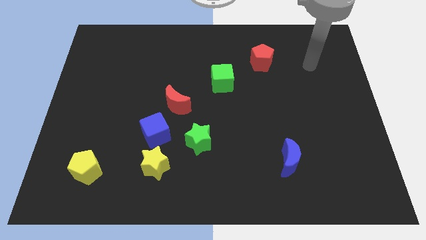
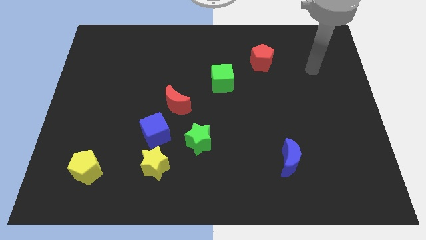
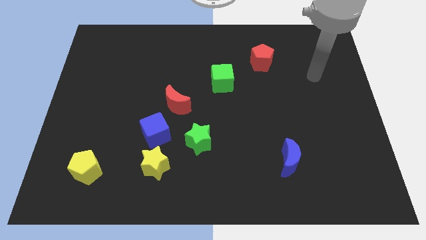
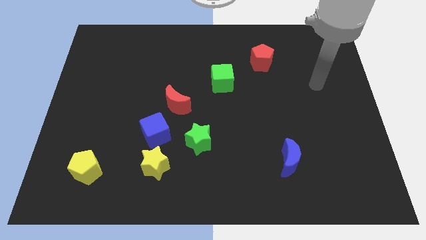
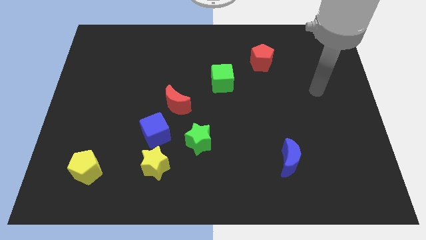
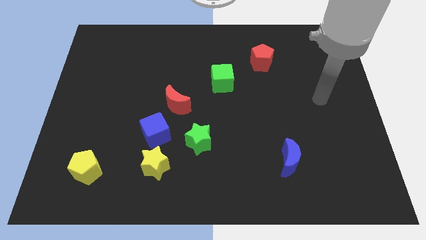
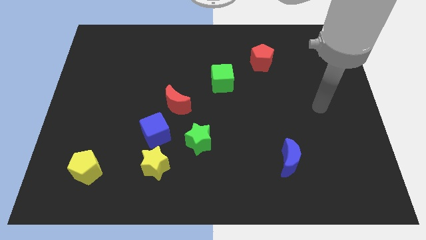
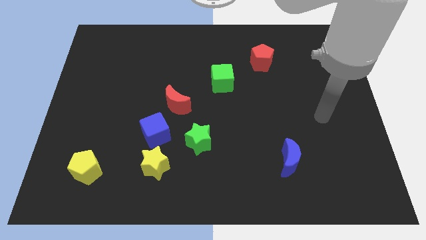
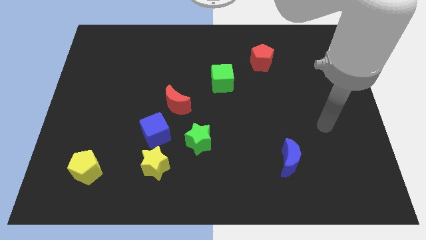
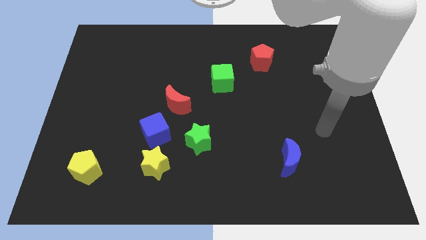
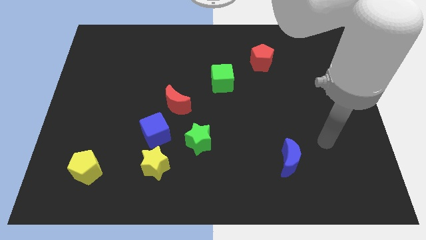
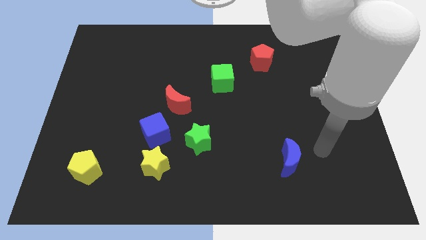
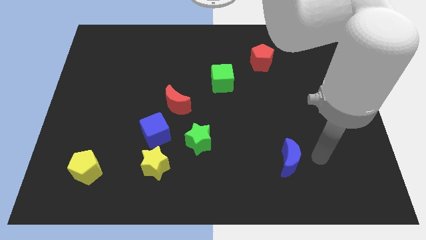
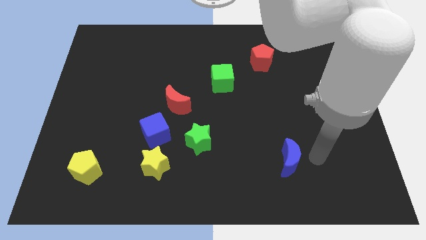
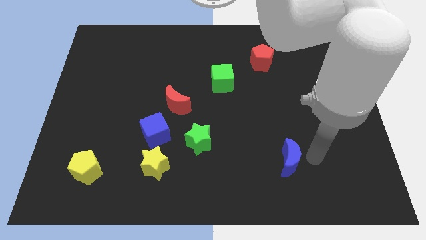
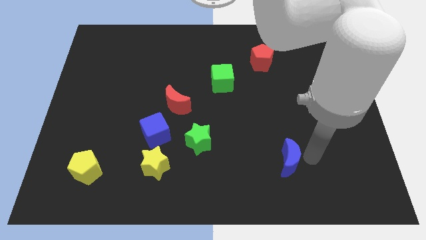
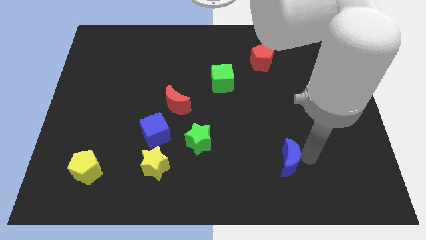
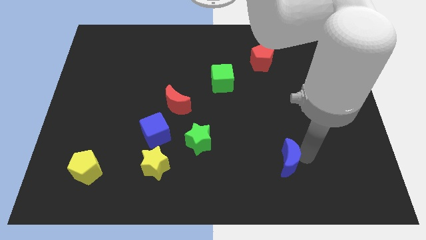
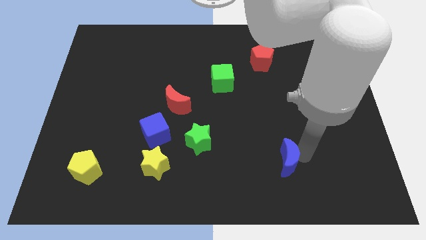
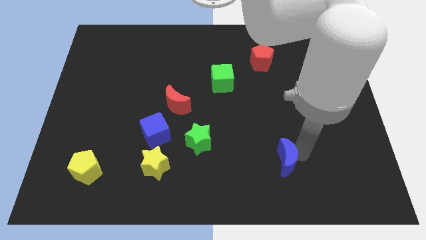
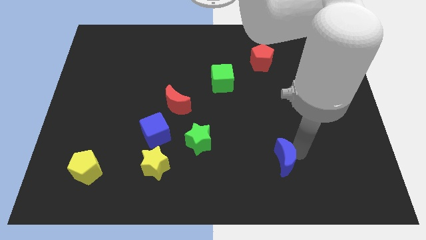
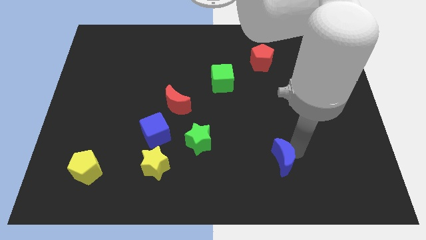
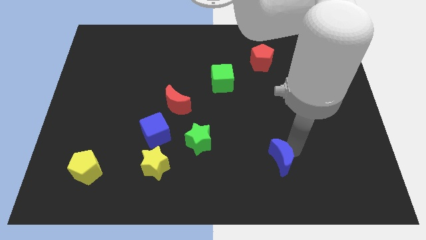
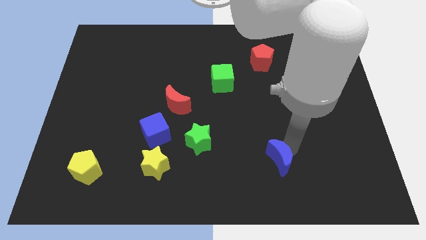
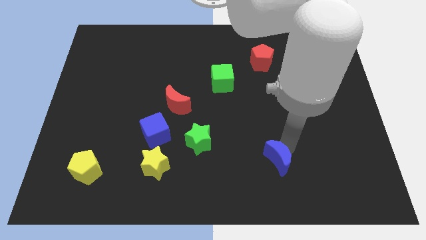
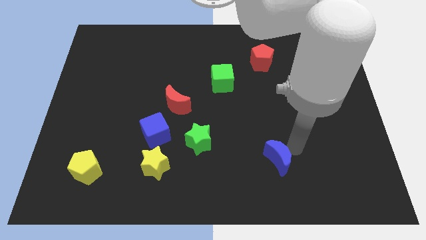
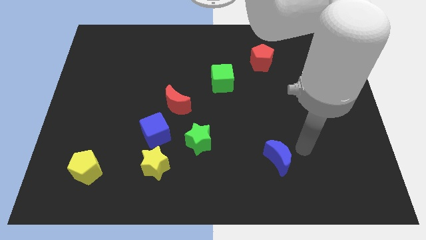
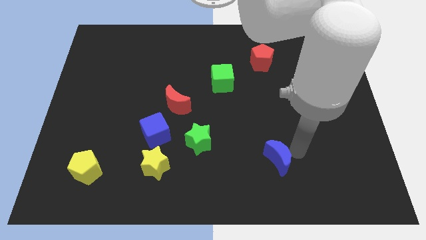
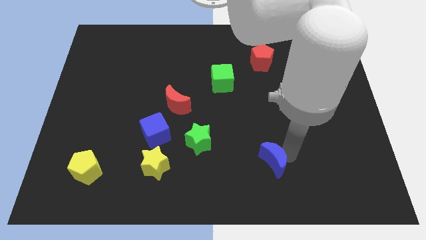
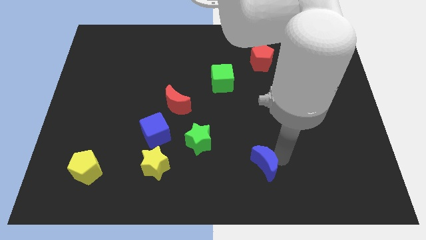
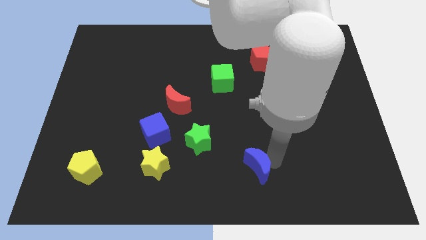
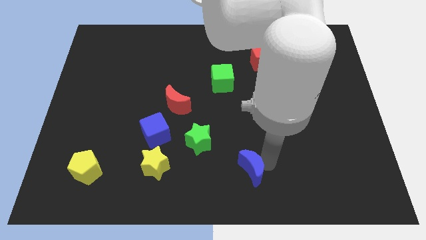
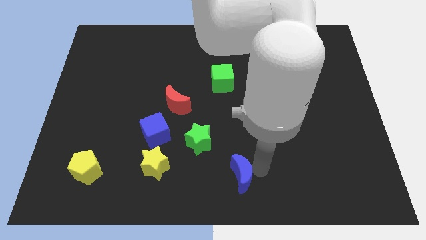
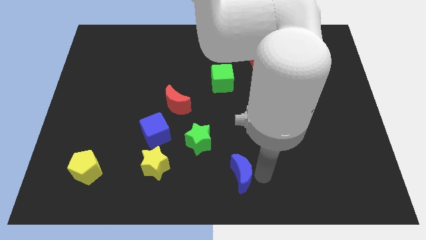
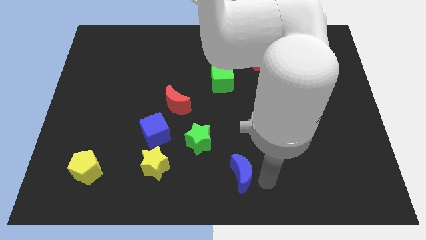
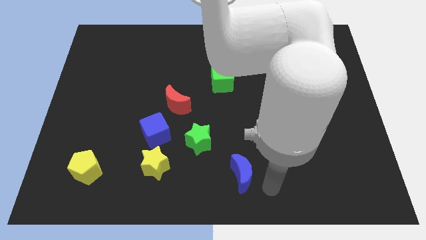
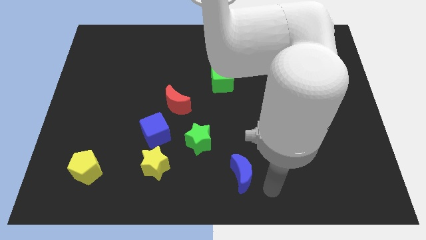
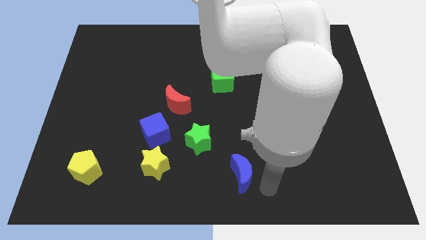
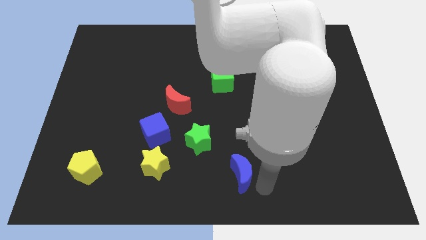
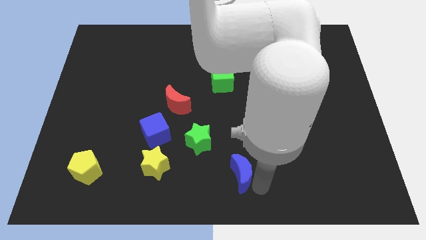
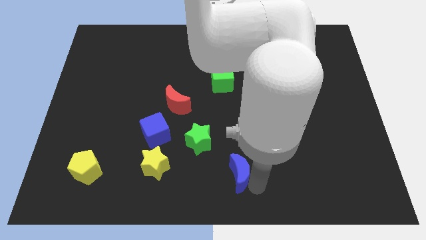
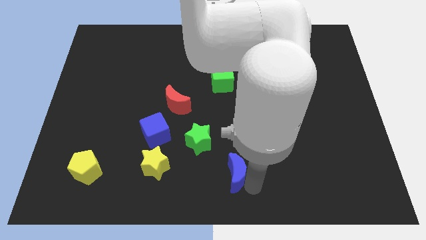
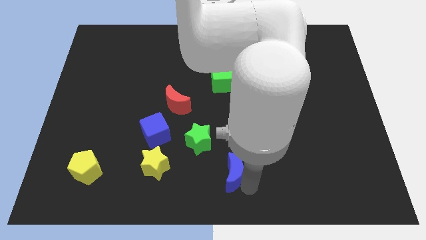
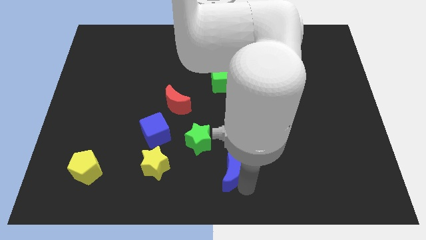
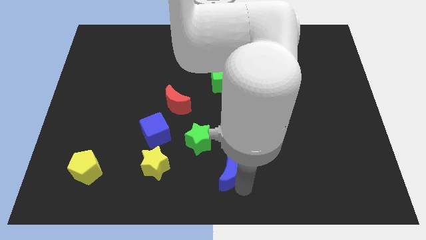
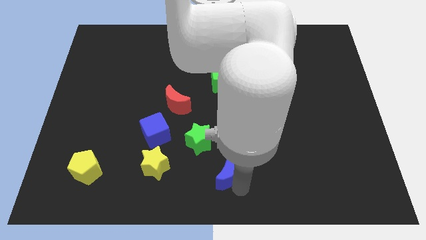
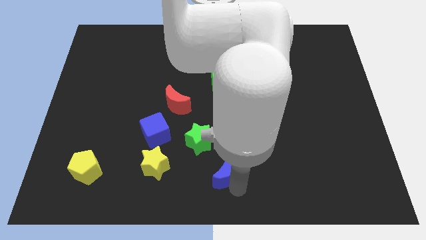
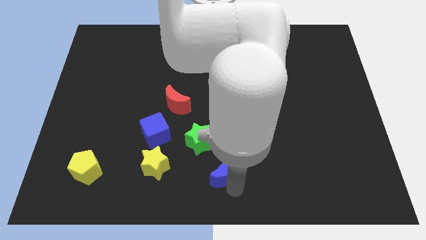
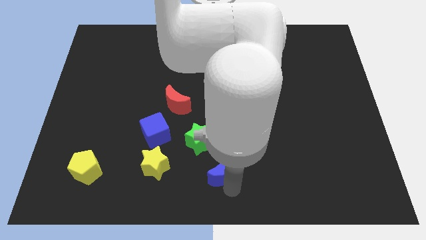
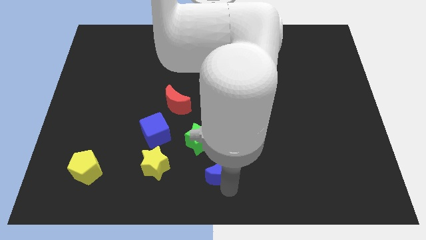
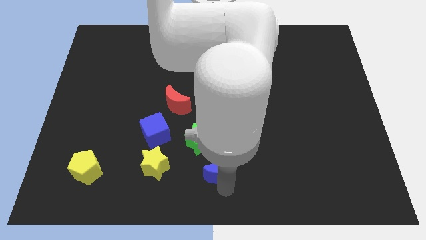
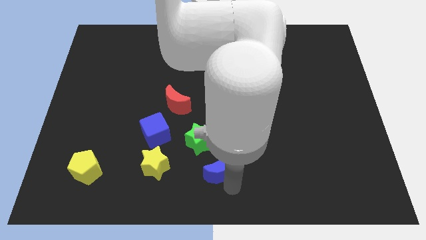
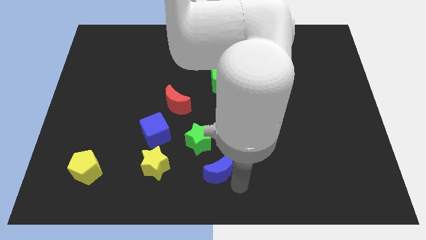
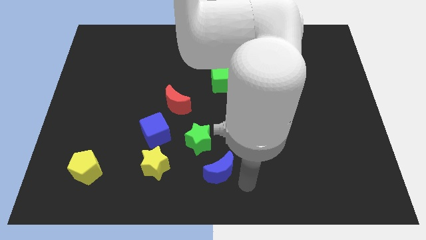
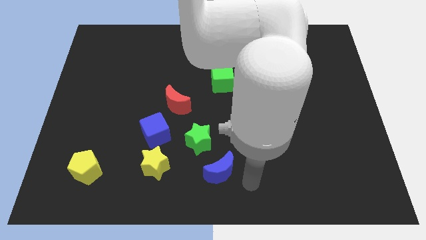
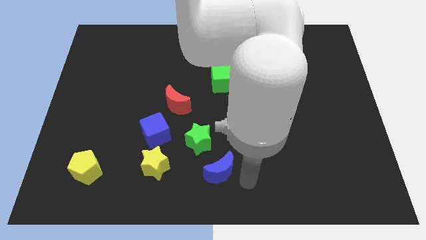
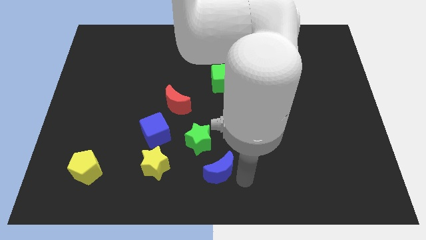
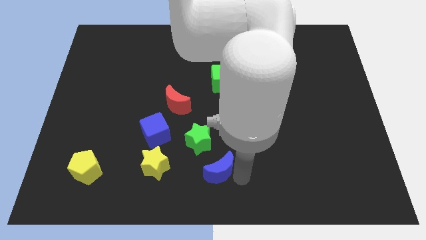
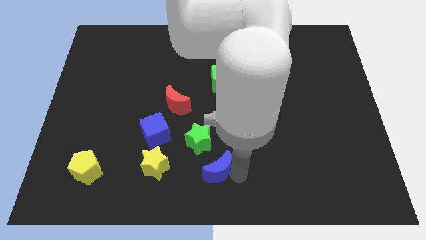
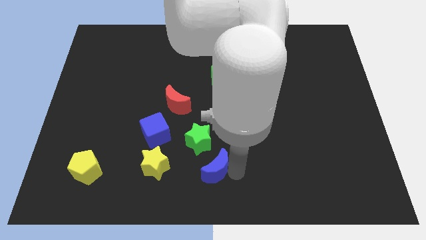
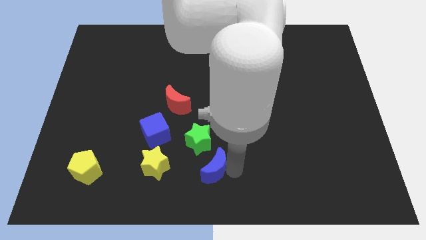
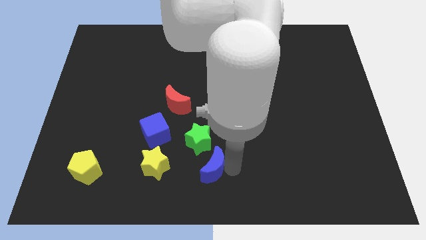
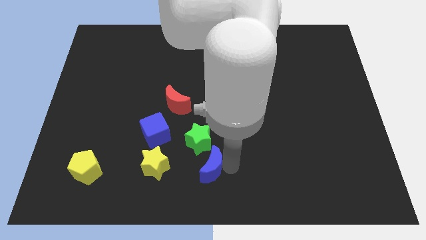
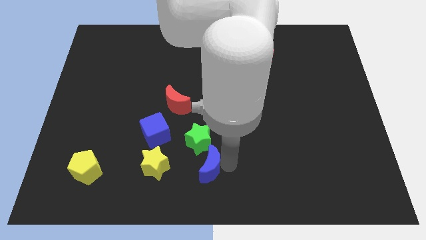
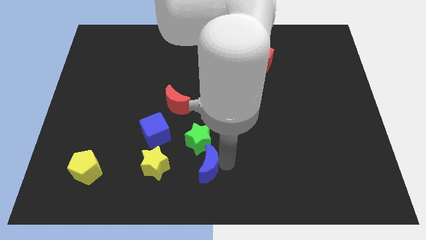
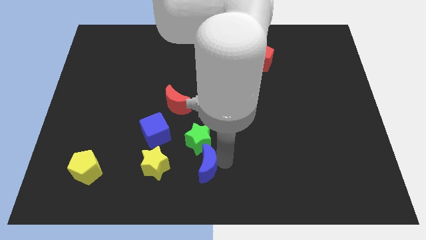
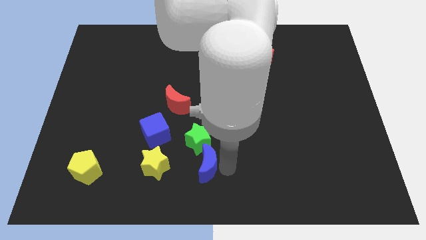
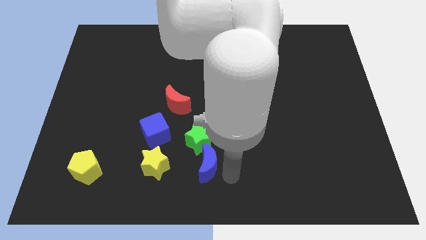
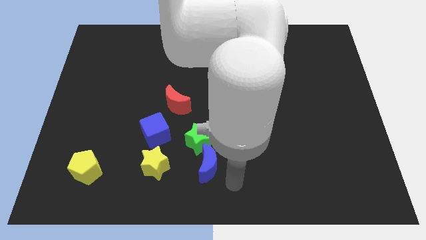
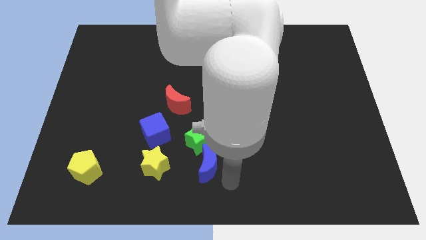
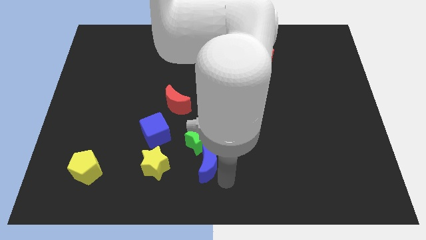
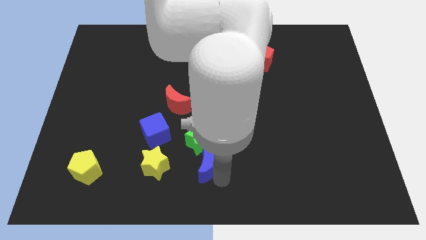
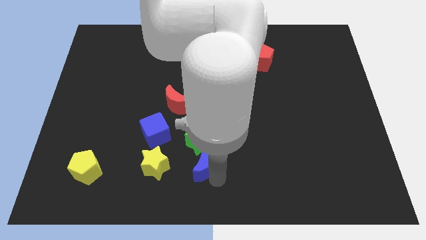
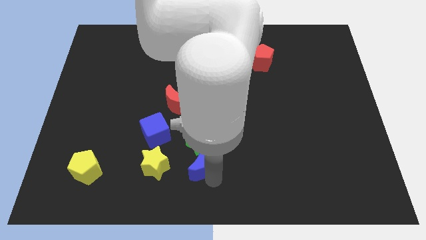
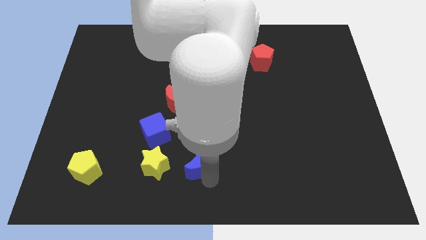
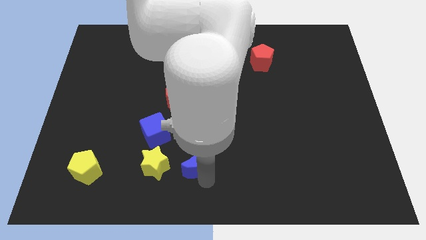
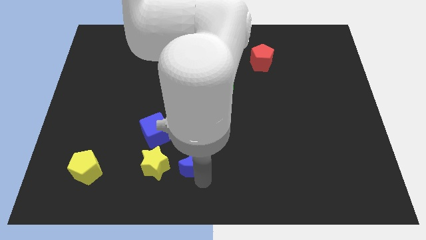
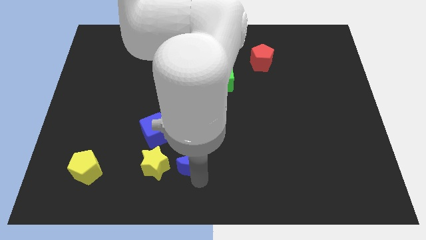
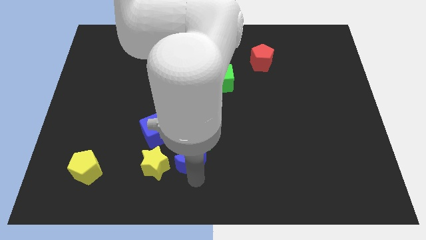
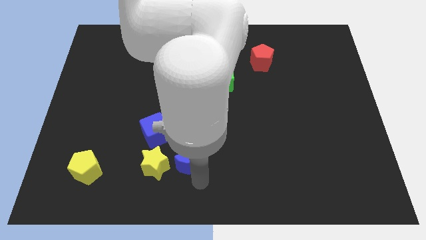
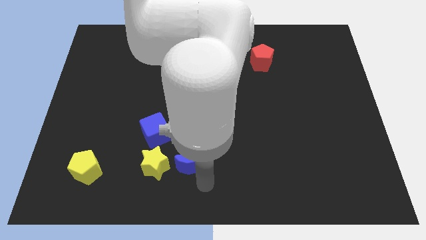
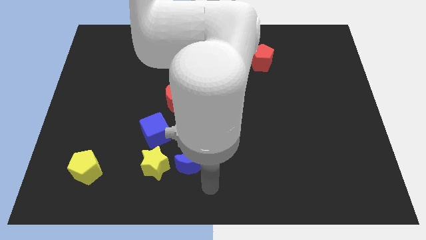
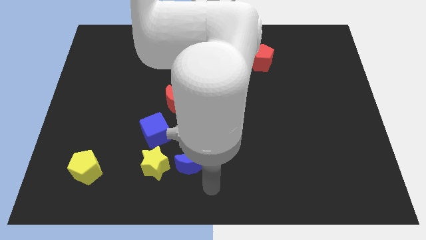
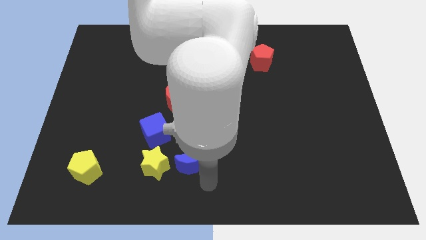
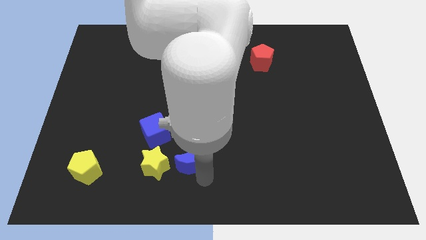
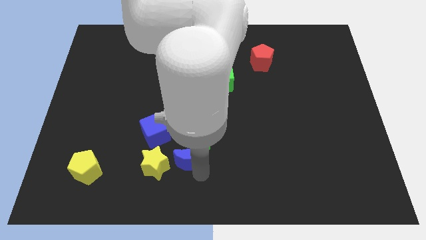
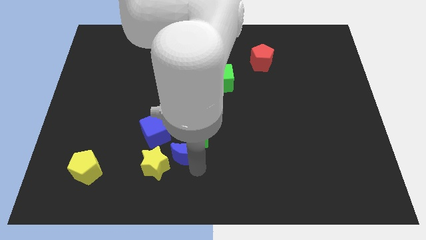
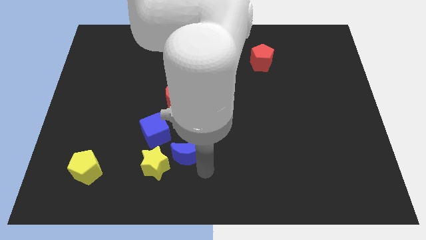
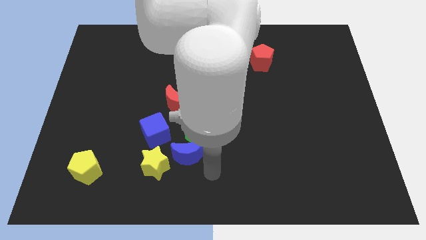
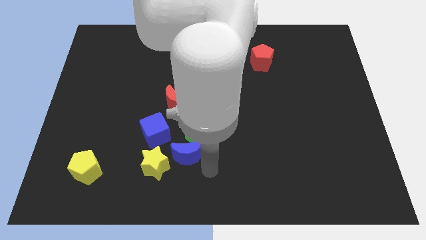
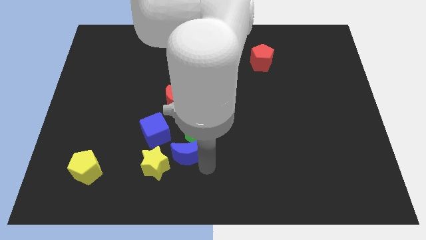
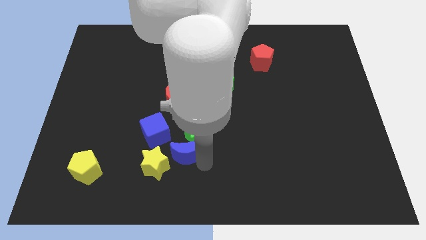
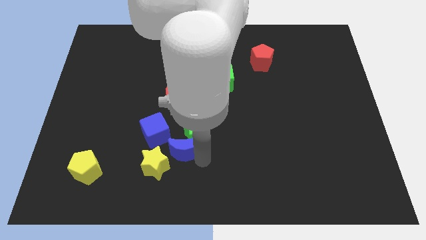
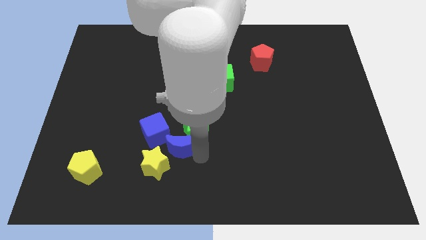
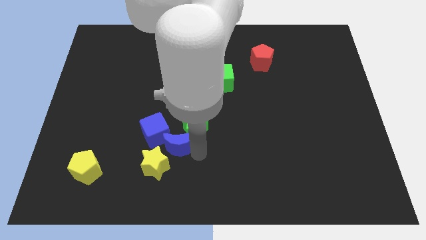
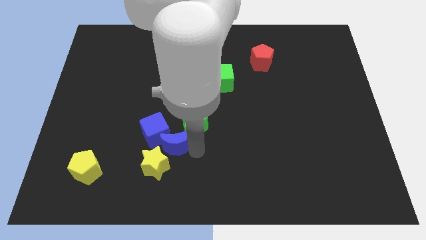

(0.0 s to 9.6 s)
move the blue moon close to the blue cube
